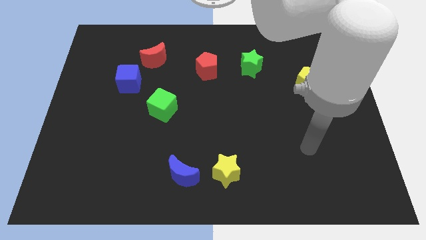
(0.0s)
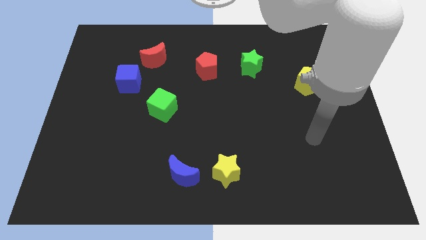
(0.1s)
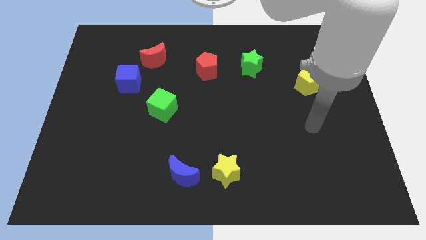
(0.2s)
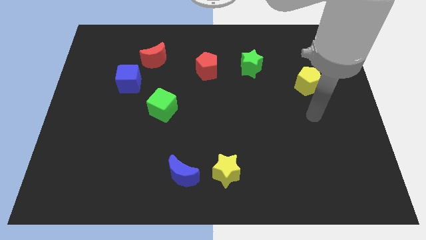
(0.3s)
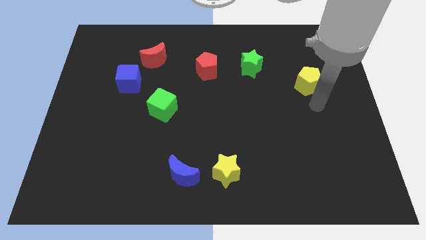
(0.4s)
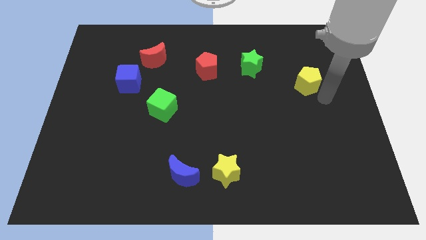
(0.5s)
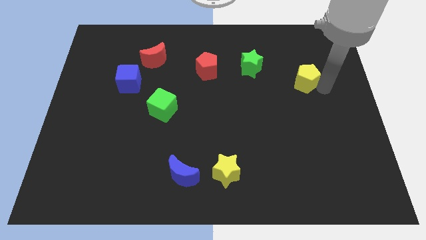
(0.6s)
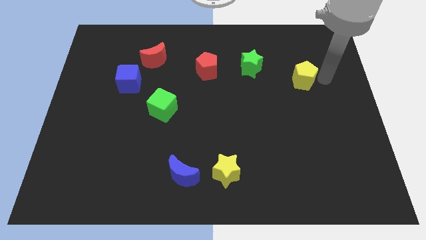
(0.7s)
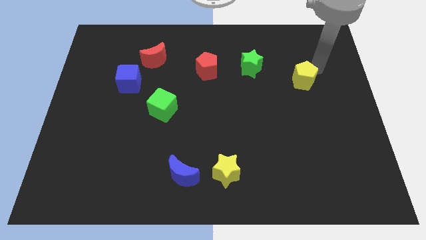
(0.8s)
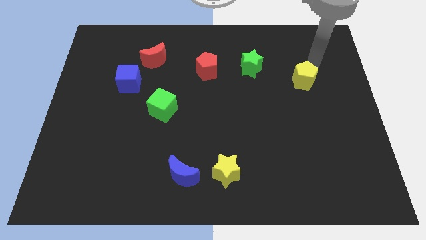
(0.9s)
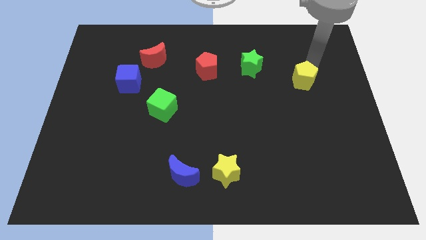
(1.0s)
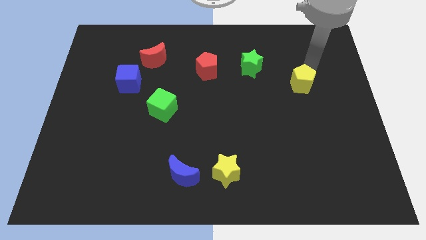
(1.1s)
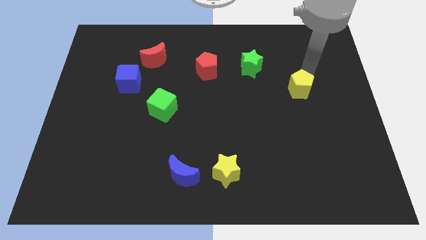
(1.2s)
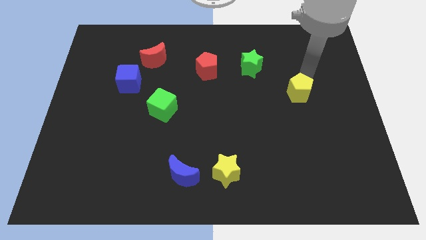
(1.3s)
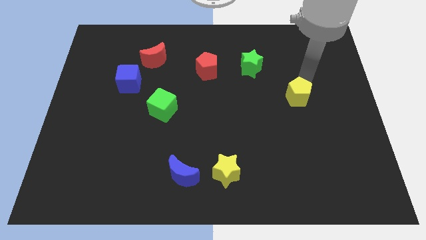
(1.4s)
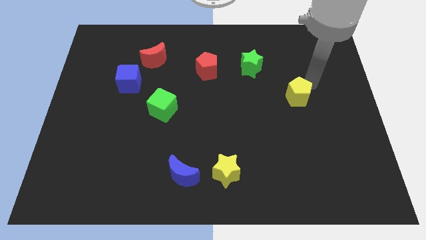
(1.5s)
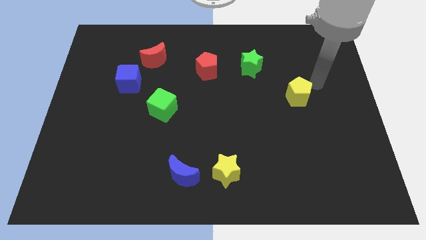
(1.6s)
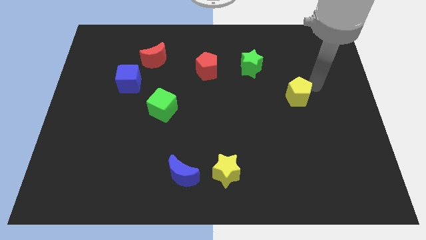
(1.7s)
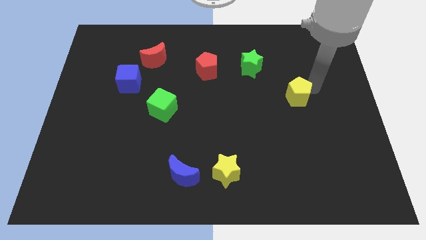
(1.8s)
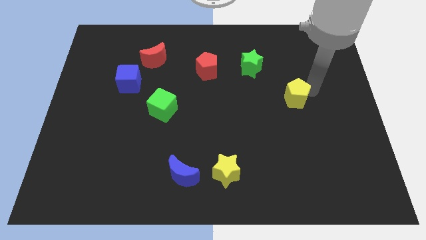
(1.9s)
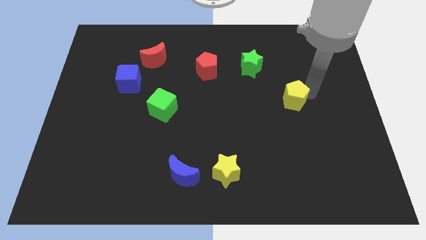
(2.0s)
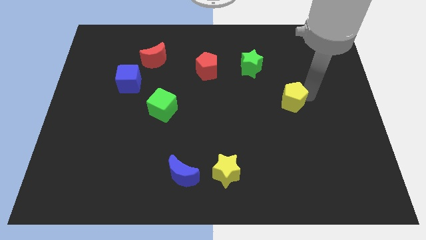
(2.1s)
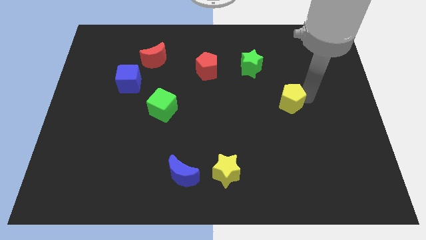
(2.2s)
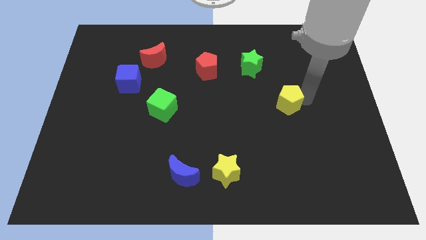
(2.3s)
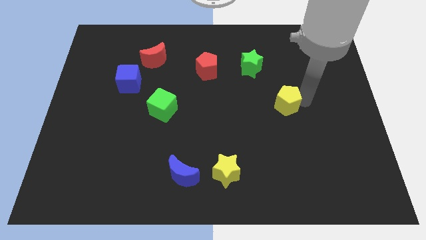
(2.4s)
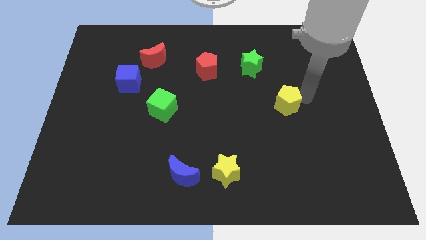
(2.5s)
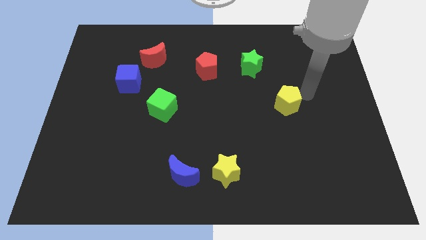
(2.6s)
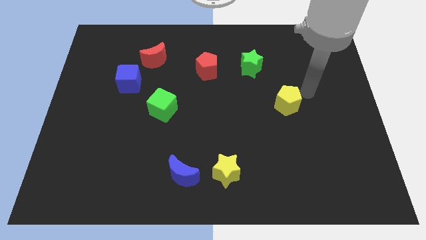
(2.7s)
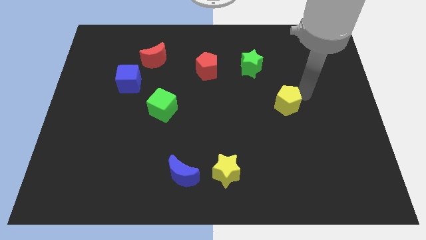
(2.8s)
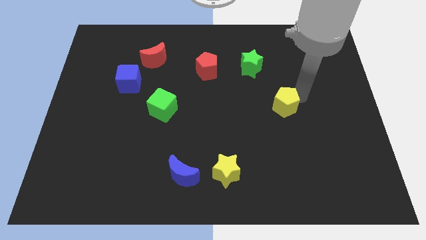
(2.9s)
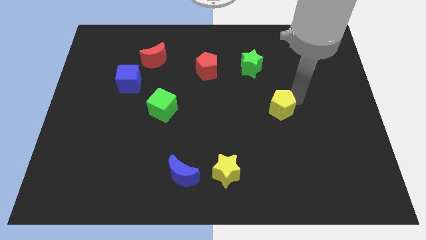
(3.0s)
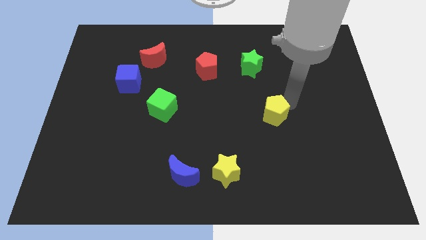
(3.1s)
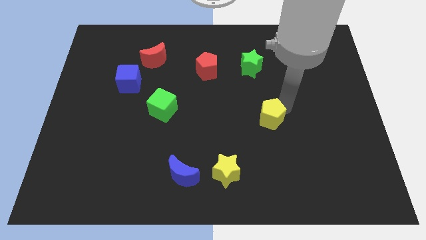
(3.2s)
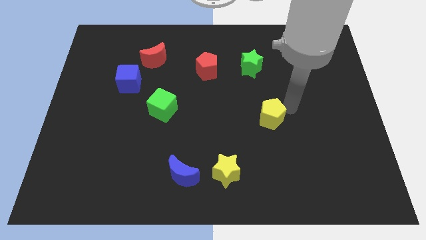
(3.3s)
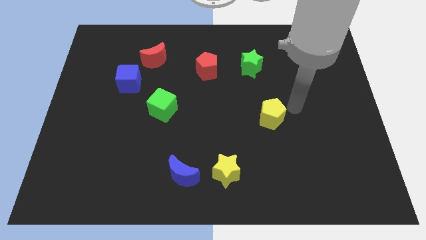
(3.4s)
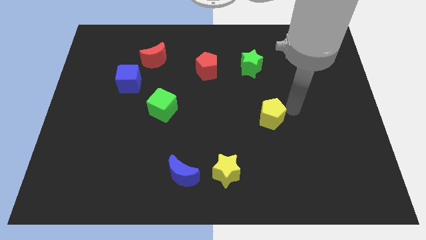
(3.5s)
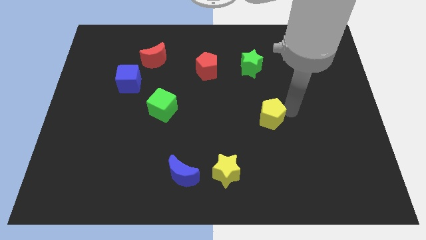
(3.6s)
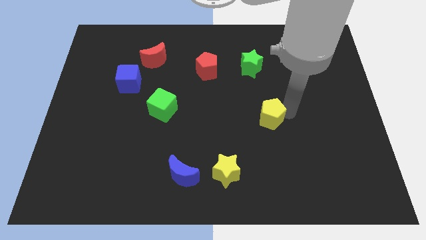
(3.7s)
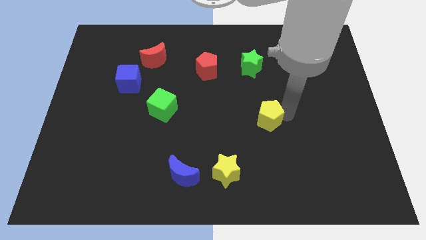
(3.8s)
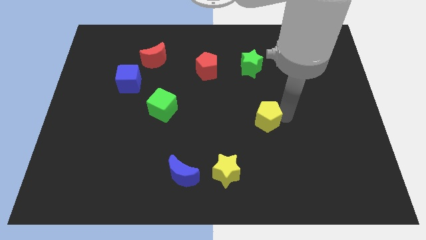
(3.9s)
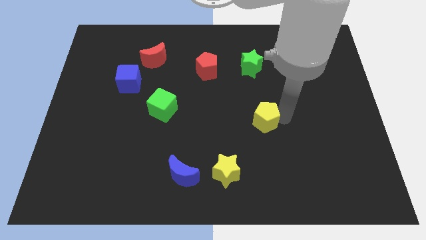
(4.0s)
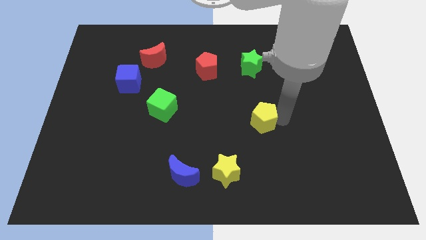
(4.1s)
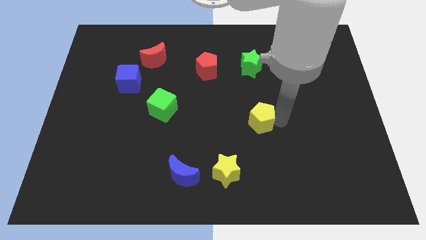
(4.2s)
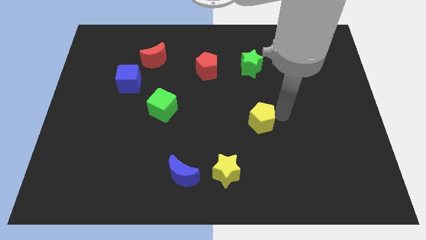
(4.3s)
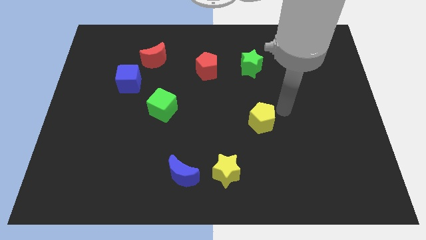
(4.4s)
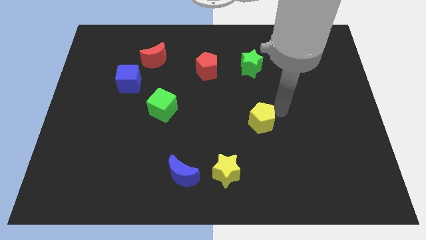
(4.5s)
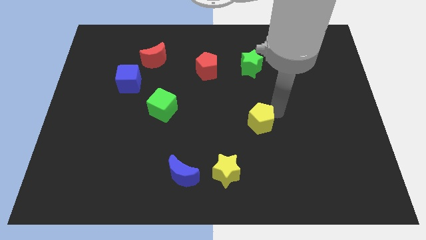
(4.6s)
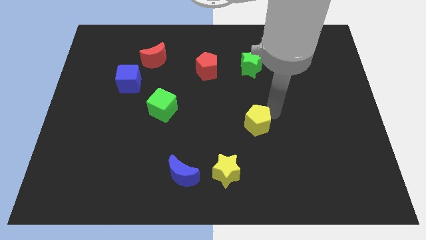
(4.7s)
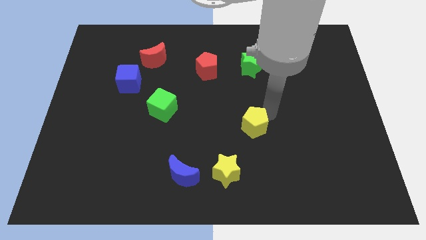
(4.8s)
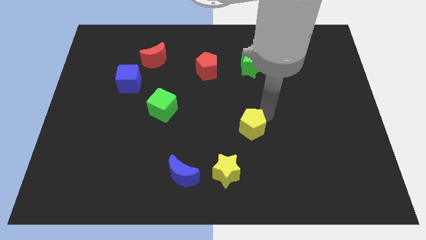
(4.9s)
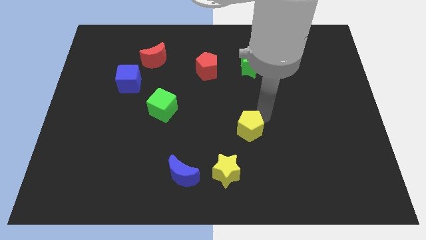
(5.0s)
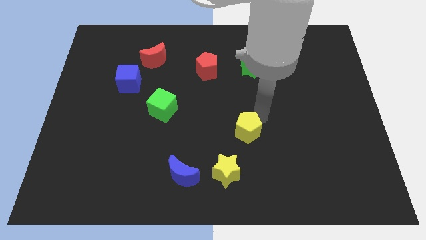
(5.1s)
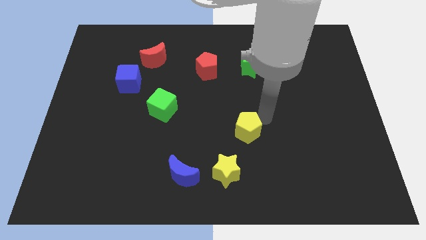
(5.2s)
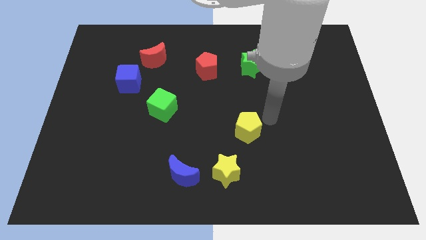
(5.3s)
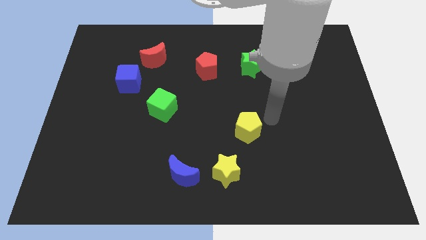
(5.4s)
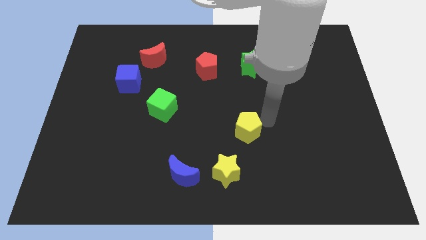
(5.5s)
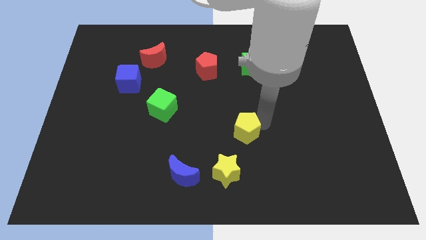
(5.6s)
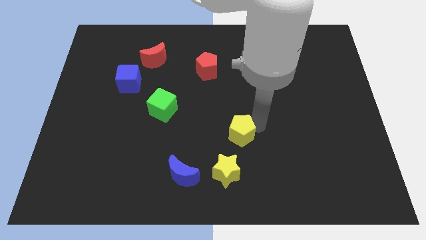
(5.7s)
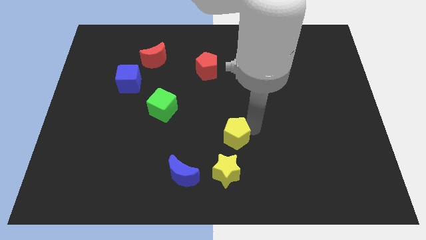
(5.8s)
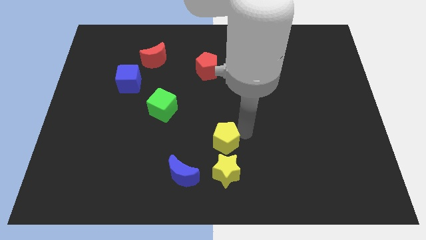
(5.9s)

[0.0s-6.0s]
put the yellow pentagon diagonally up and to the right of the blue moon

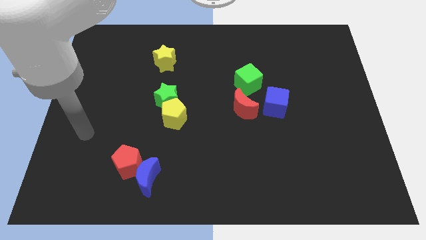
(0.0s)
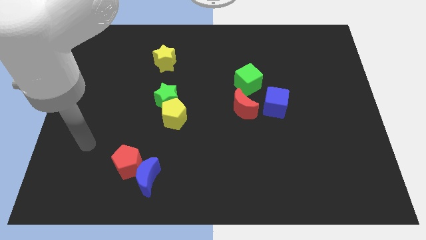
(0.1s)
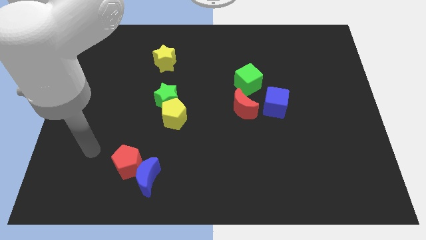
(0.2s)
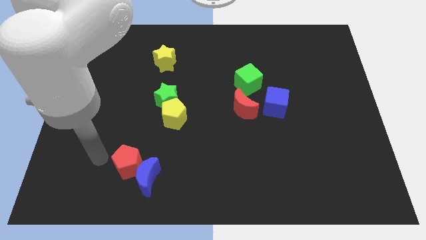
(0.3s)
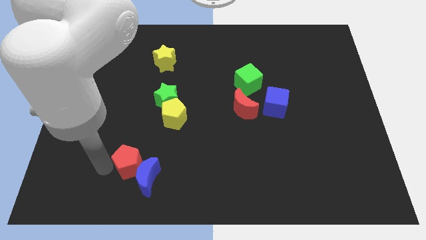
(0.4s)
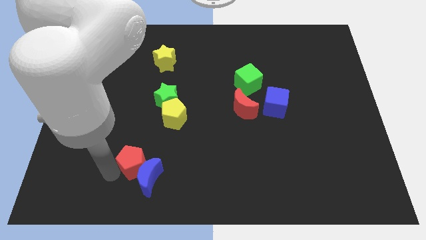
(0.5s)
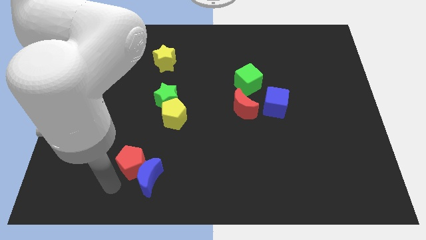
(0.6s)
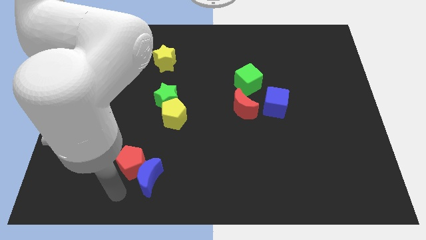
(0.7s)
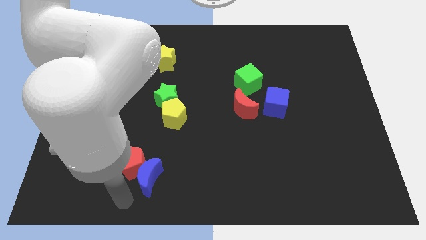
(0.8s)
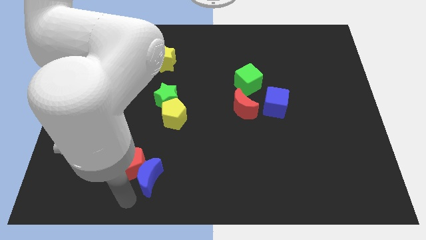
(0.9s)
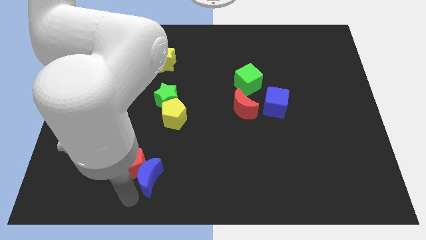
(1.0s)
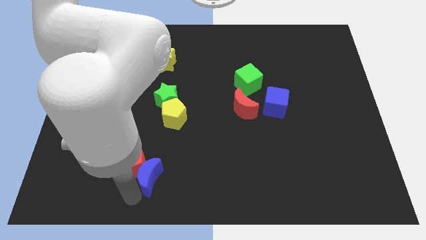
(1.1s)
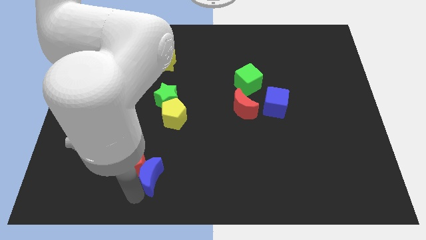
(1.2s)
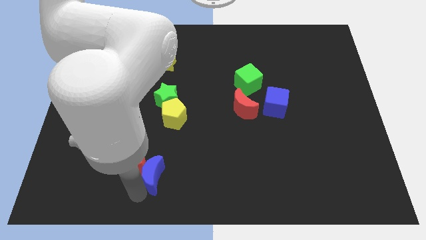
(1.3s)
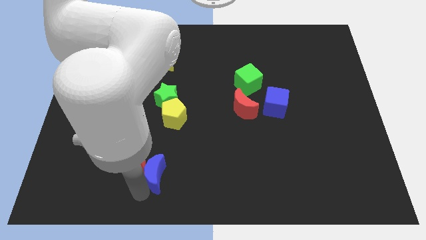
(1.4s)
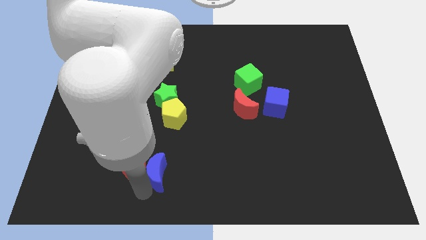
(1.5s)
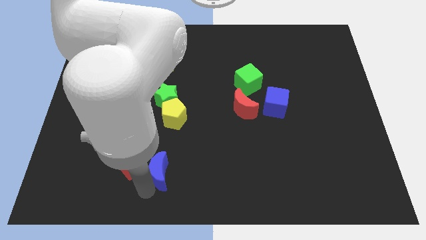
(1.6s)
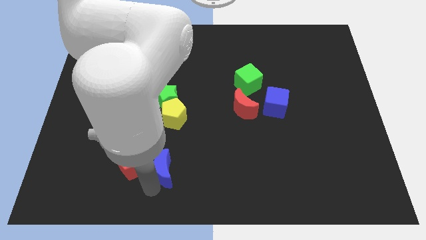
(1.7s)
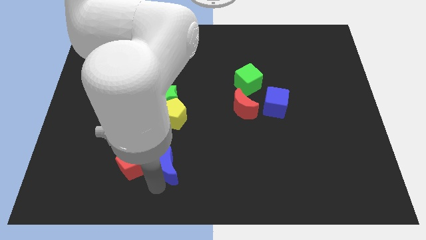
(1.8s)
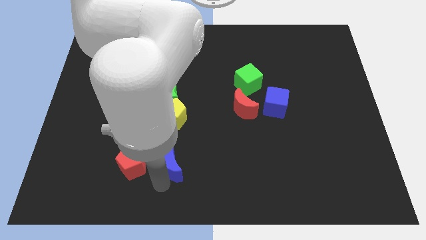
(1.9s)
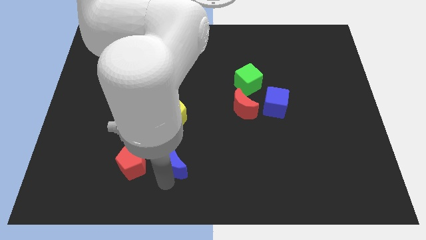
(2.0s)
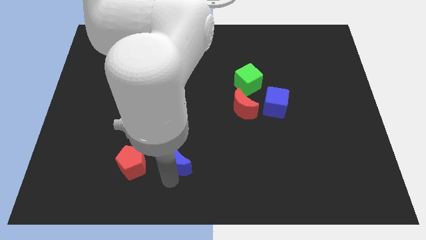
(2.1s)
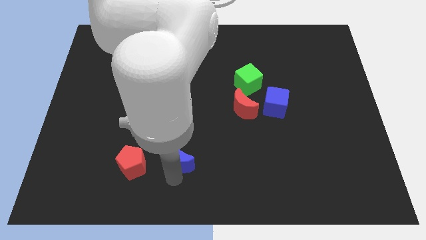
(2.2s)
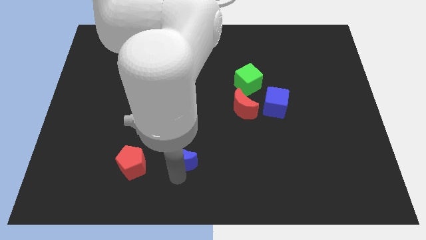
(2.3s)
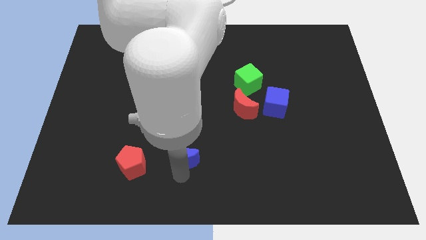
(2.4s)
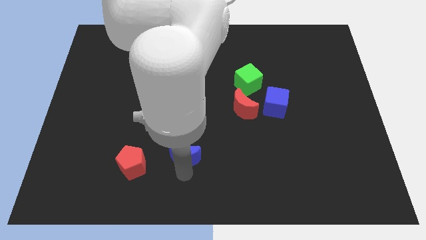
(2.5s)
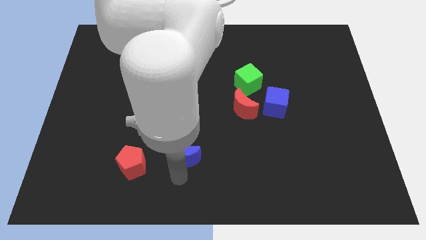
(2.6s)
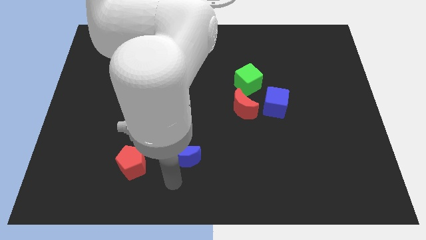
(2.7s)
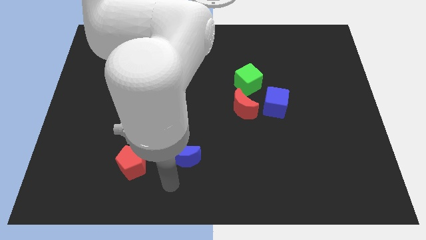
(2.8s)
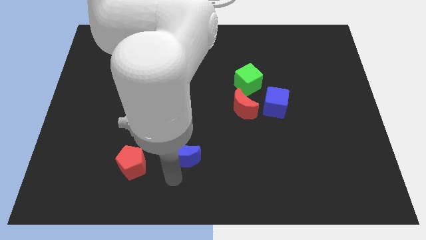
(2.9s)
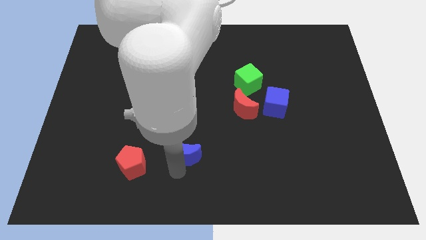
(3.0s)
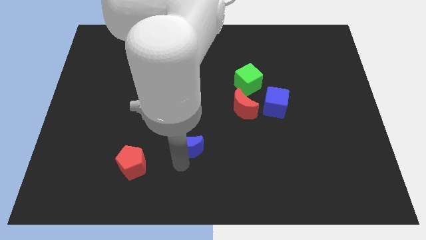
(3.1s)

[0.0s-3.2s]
move the blue moon to the bottom right of the yellow pentagon
